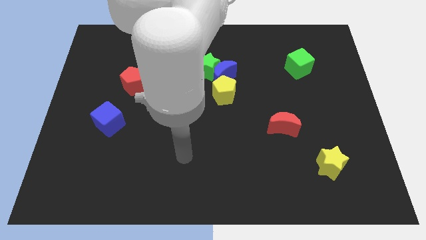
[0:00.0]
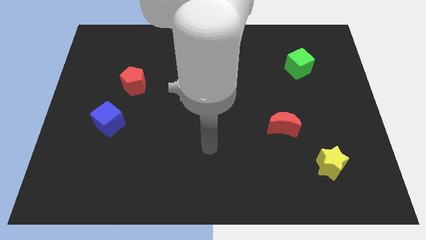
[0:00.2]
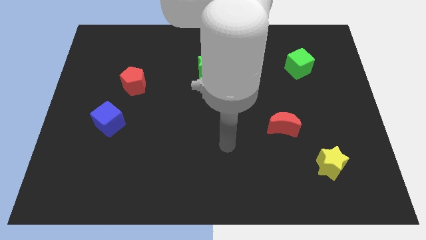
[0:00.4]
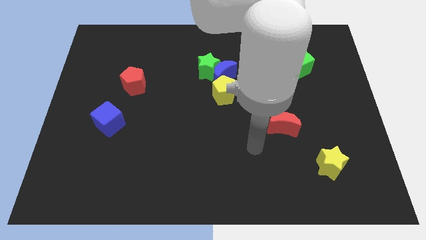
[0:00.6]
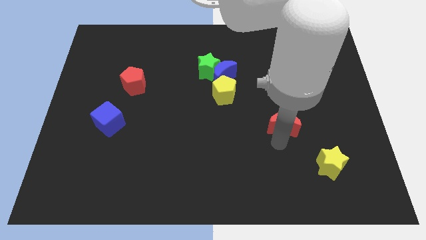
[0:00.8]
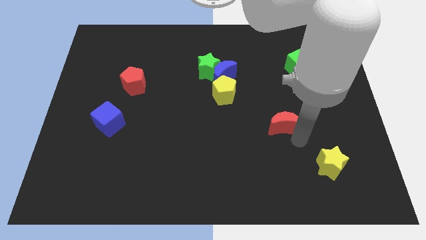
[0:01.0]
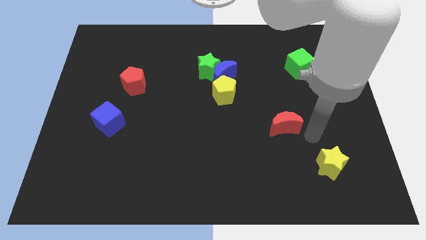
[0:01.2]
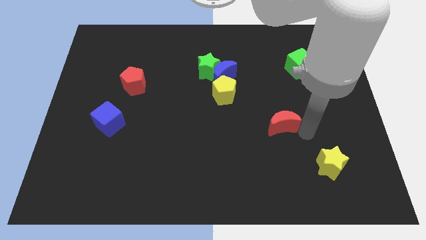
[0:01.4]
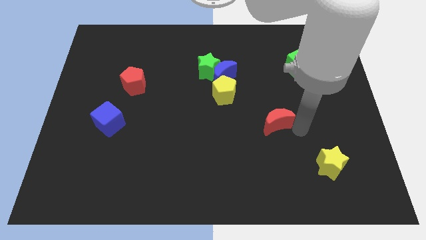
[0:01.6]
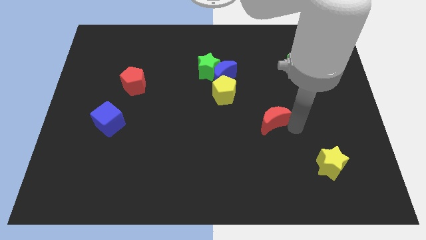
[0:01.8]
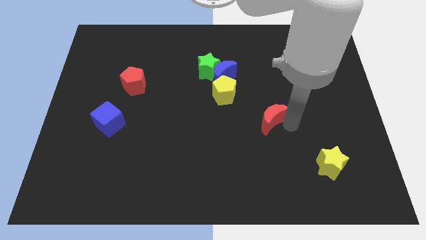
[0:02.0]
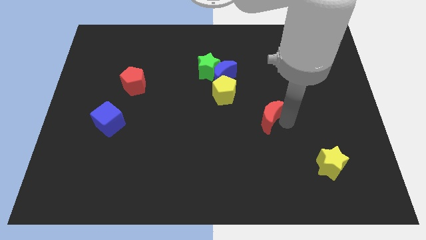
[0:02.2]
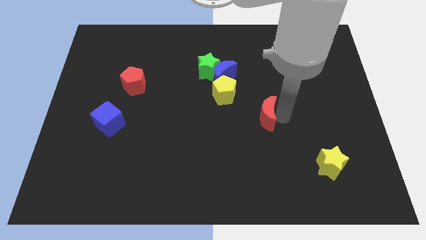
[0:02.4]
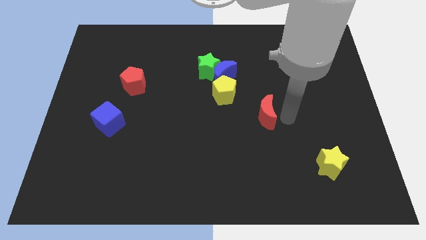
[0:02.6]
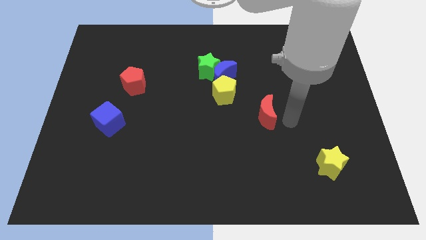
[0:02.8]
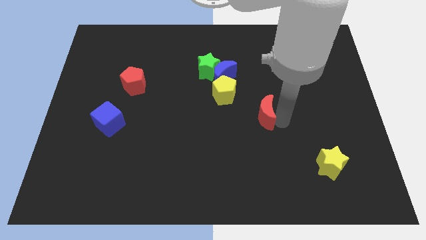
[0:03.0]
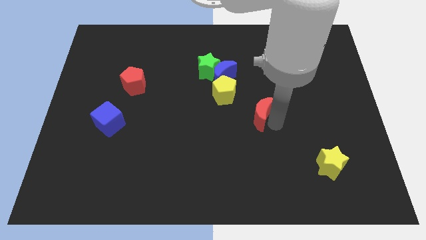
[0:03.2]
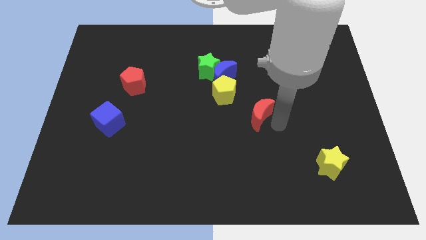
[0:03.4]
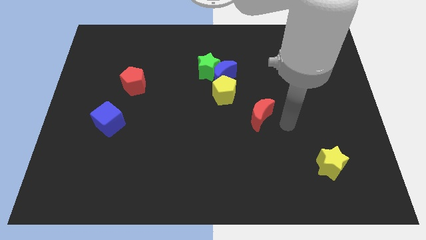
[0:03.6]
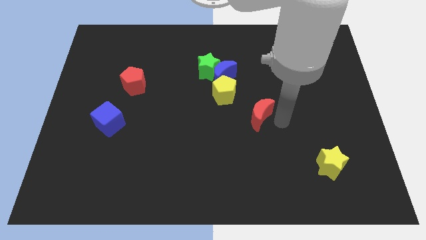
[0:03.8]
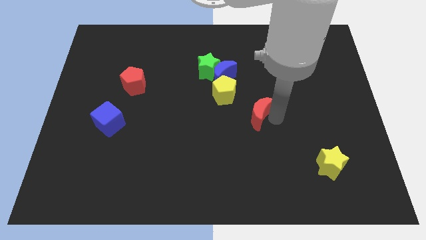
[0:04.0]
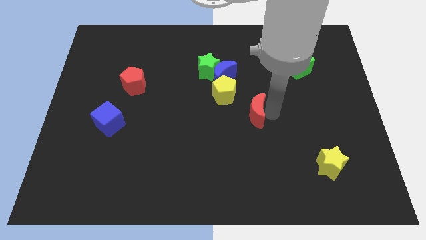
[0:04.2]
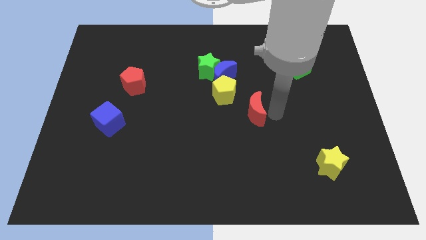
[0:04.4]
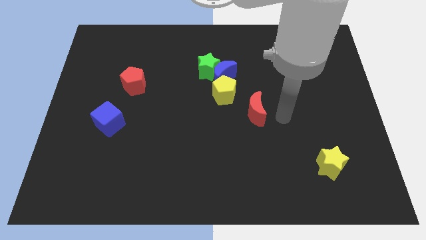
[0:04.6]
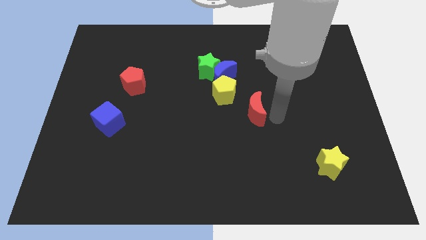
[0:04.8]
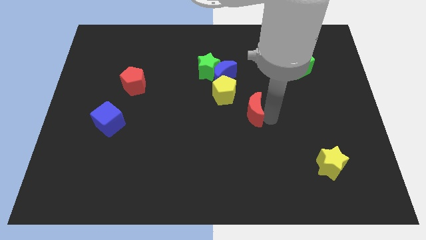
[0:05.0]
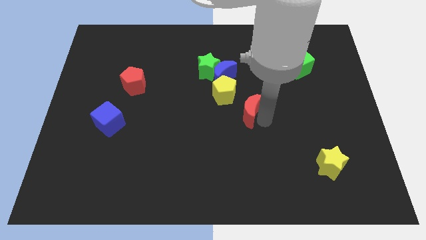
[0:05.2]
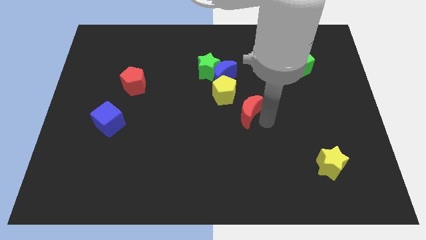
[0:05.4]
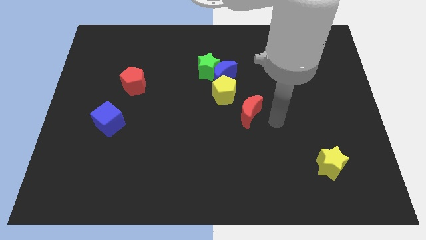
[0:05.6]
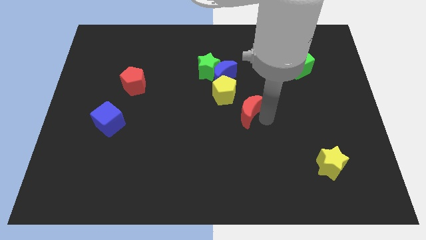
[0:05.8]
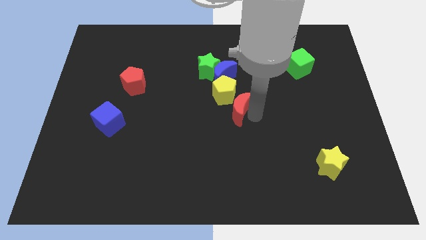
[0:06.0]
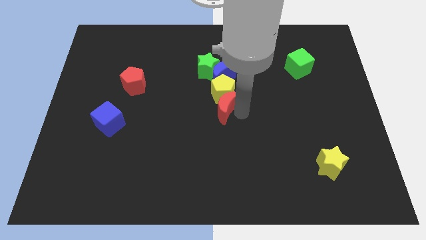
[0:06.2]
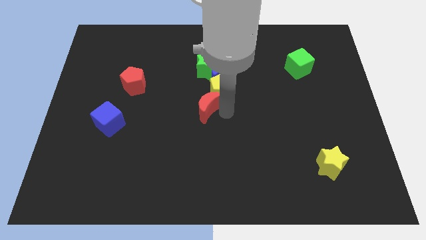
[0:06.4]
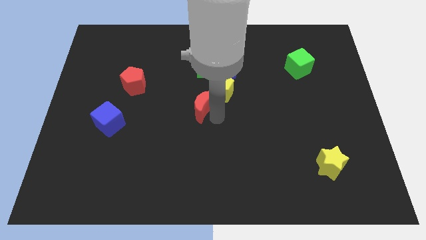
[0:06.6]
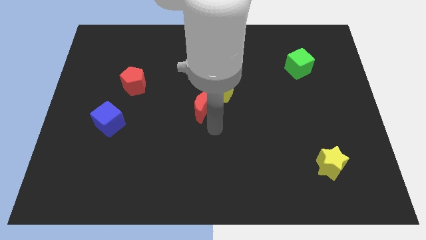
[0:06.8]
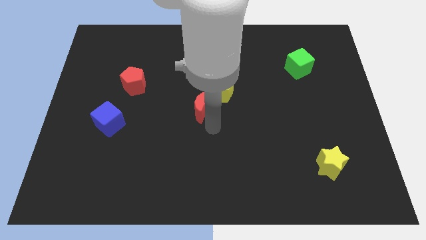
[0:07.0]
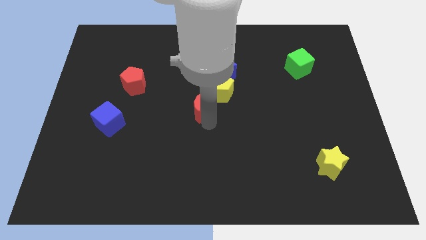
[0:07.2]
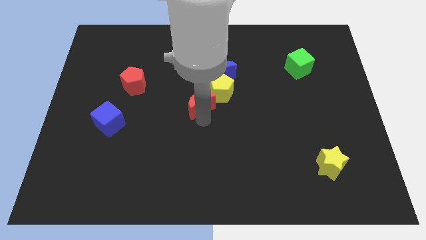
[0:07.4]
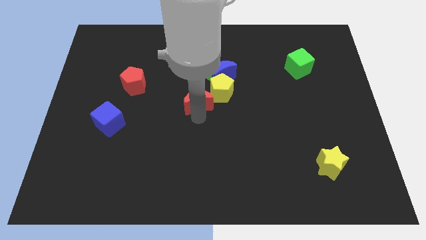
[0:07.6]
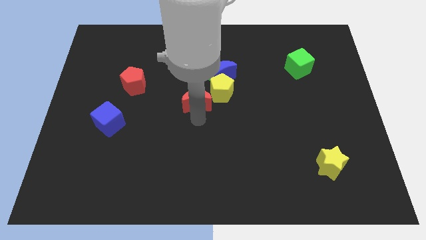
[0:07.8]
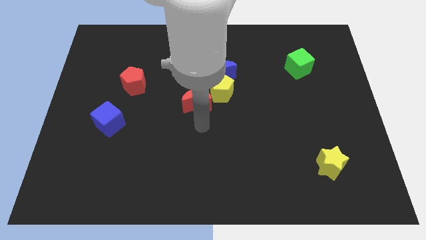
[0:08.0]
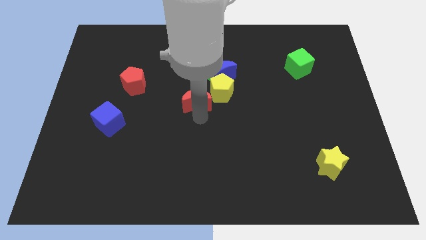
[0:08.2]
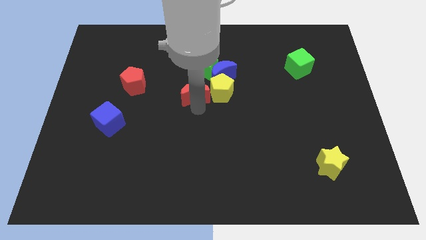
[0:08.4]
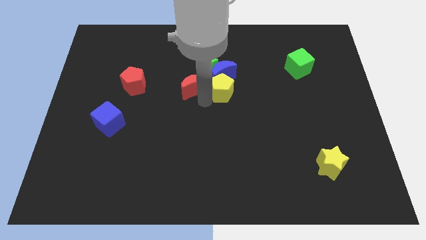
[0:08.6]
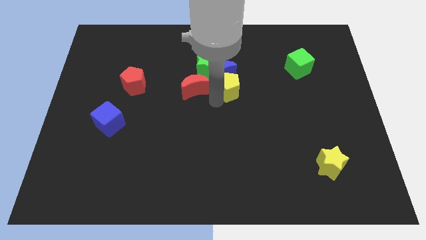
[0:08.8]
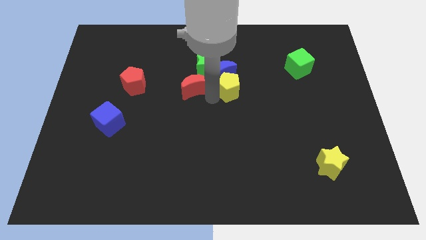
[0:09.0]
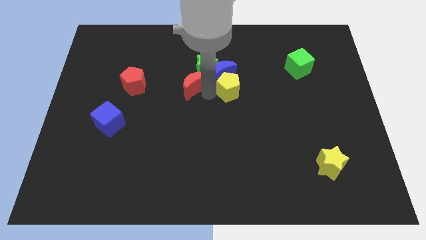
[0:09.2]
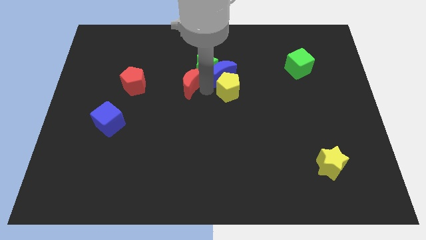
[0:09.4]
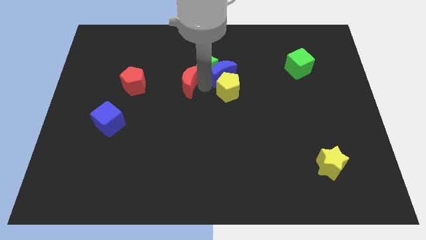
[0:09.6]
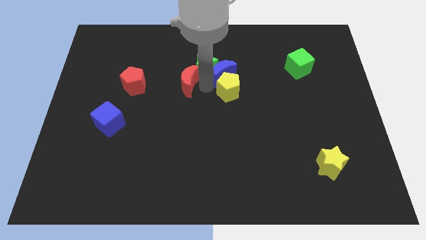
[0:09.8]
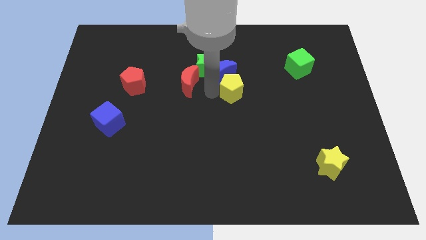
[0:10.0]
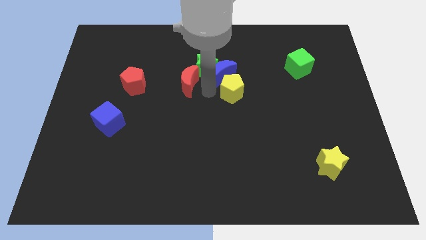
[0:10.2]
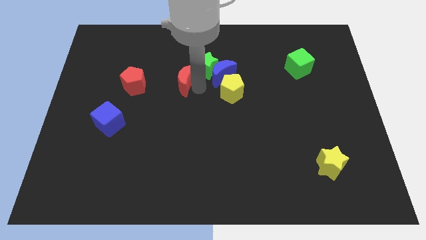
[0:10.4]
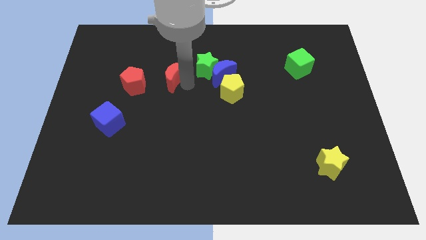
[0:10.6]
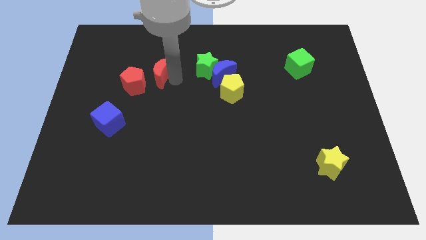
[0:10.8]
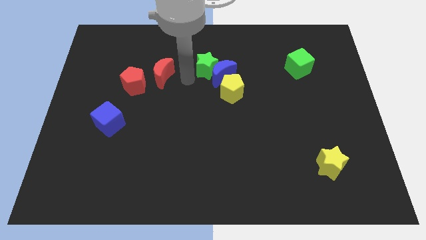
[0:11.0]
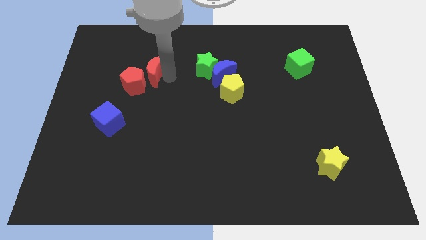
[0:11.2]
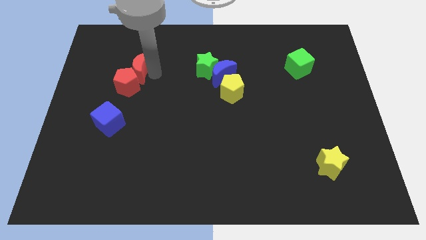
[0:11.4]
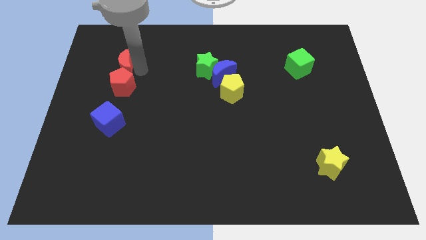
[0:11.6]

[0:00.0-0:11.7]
put the red moon to the top left of the red pentagon
